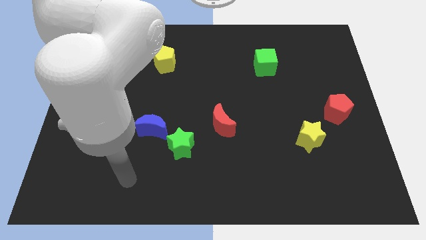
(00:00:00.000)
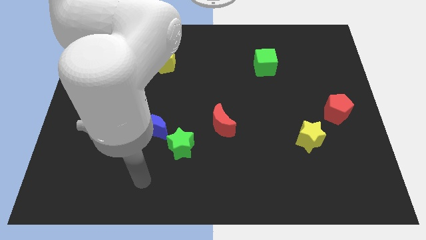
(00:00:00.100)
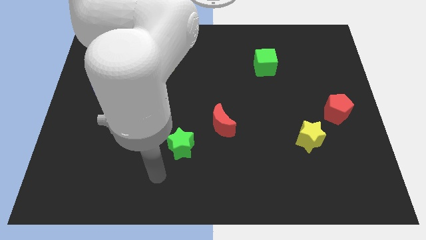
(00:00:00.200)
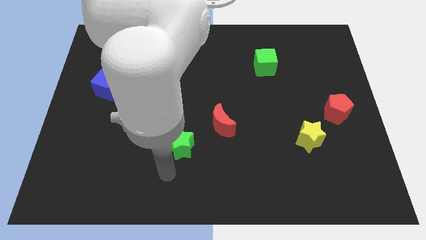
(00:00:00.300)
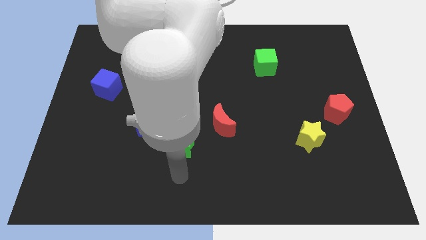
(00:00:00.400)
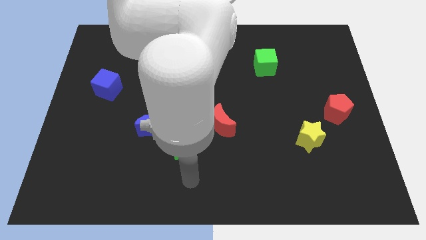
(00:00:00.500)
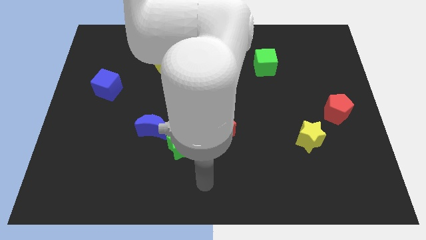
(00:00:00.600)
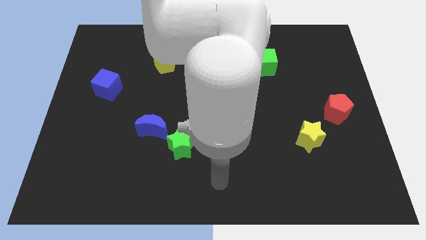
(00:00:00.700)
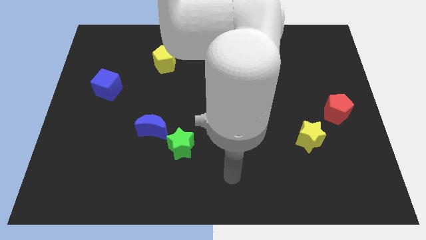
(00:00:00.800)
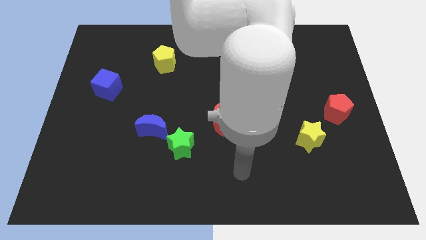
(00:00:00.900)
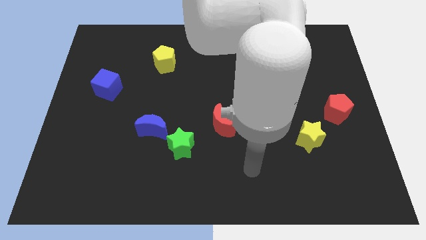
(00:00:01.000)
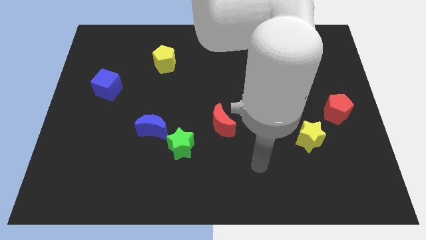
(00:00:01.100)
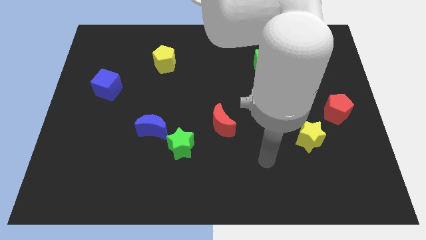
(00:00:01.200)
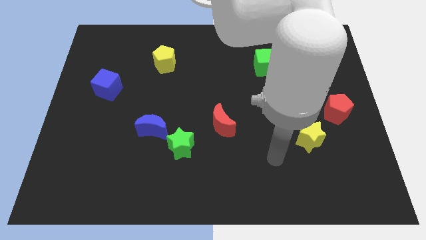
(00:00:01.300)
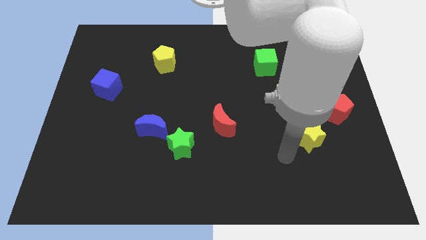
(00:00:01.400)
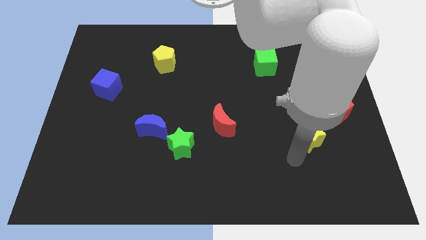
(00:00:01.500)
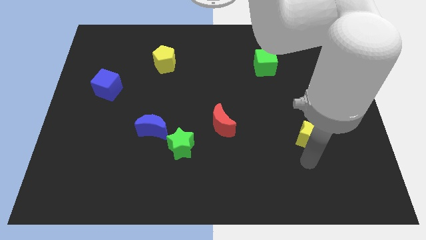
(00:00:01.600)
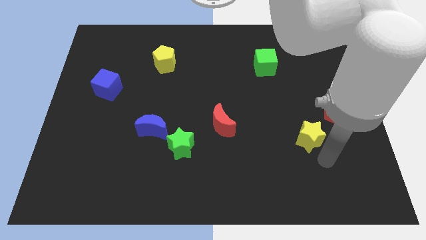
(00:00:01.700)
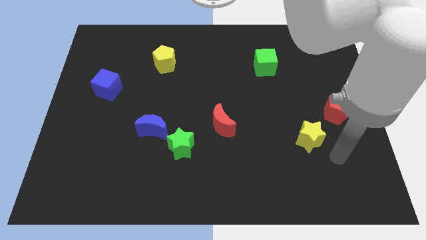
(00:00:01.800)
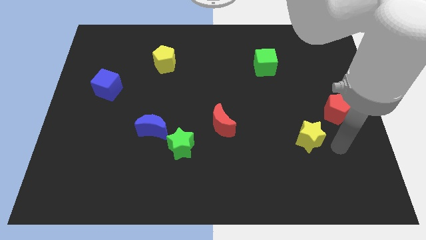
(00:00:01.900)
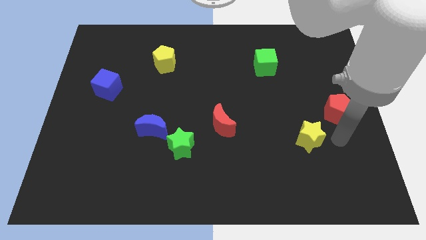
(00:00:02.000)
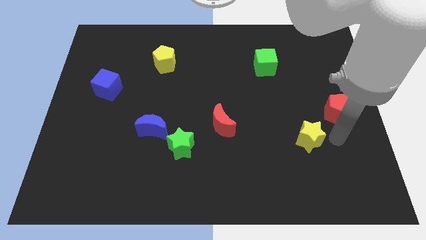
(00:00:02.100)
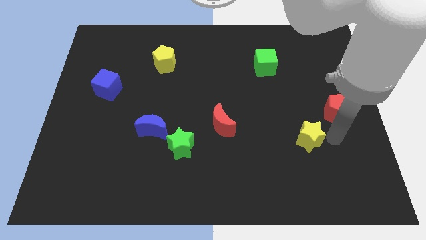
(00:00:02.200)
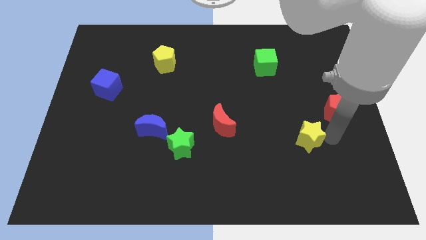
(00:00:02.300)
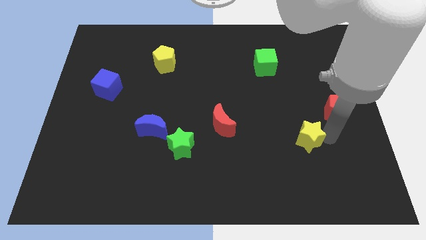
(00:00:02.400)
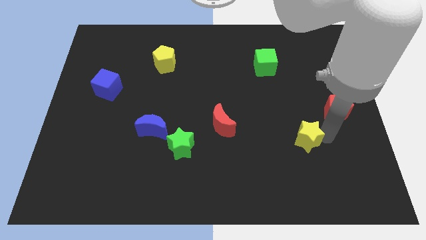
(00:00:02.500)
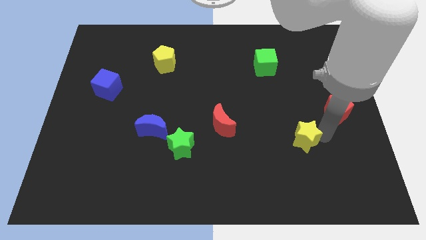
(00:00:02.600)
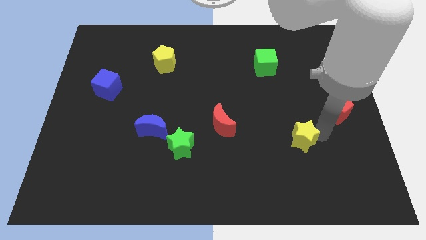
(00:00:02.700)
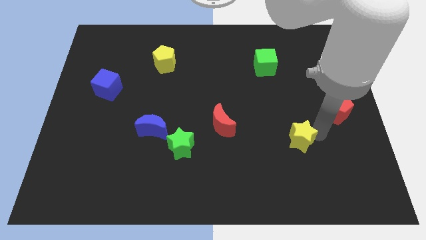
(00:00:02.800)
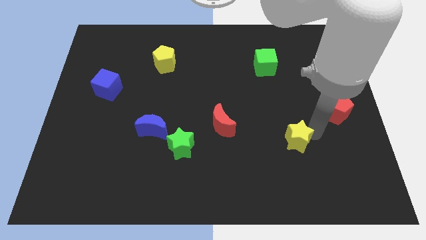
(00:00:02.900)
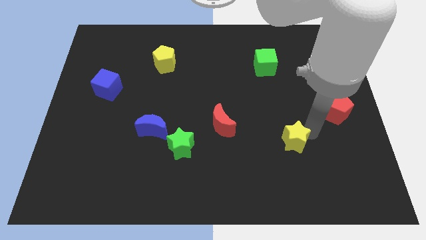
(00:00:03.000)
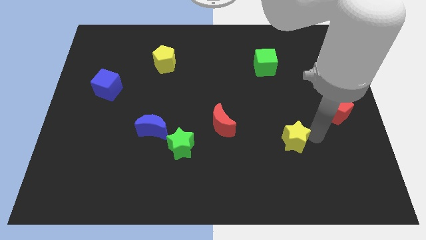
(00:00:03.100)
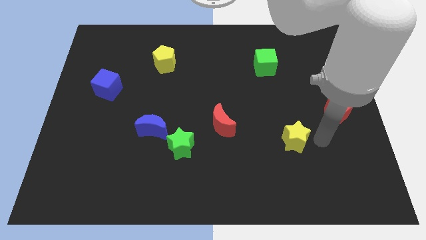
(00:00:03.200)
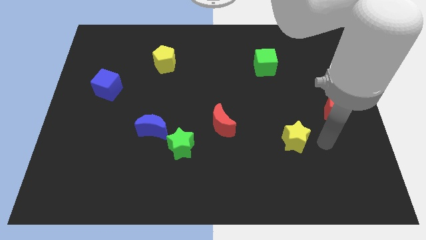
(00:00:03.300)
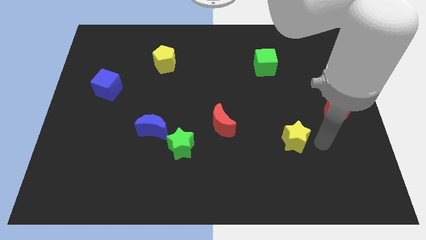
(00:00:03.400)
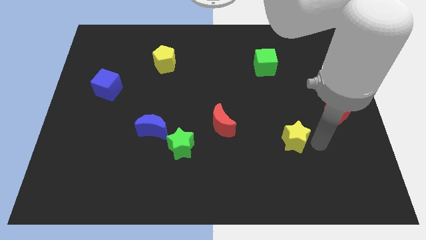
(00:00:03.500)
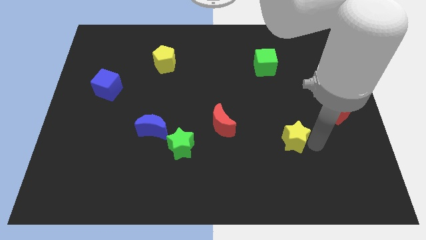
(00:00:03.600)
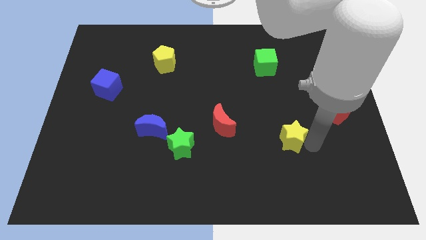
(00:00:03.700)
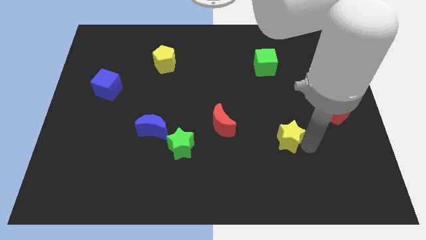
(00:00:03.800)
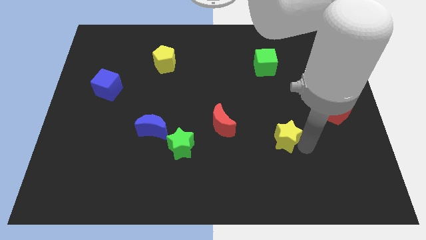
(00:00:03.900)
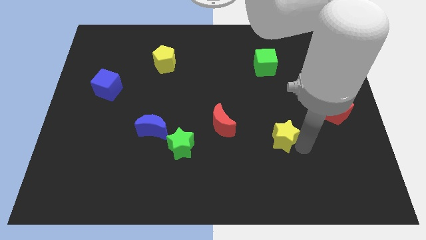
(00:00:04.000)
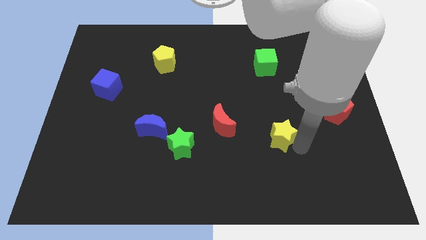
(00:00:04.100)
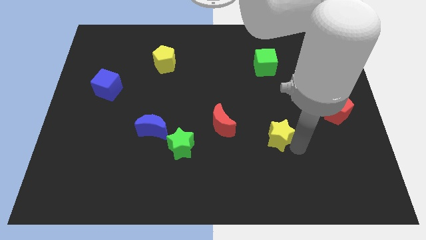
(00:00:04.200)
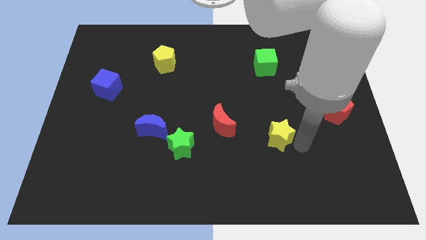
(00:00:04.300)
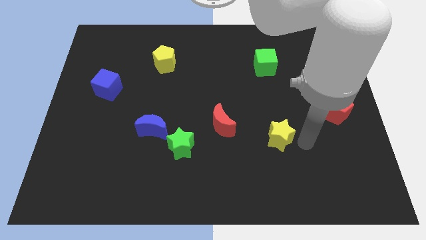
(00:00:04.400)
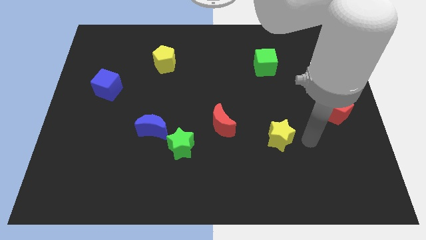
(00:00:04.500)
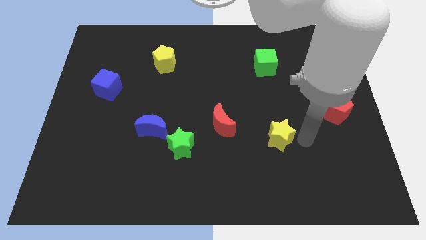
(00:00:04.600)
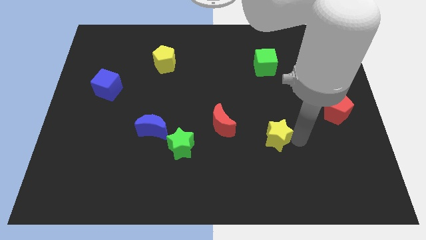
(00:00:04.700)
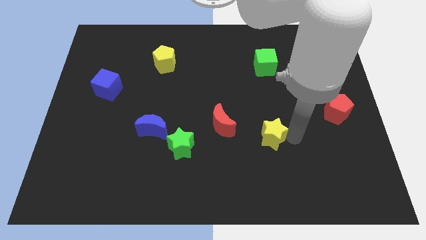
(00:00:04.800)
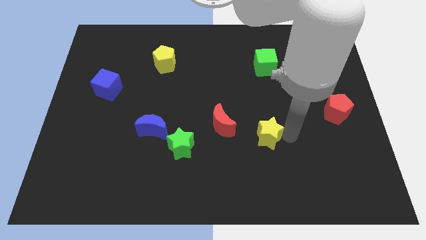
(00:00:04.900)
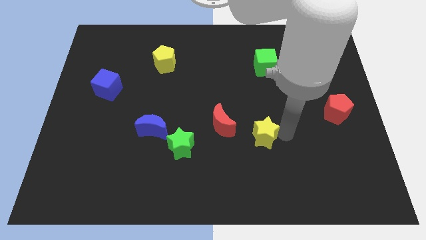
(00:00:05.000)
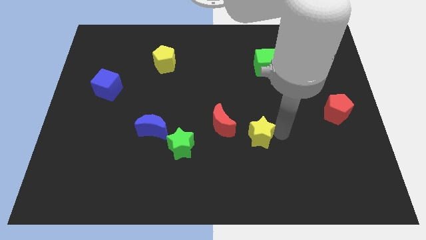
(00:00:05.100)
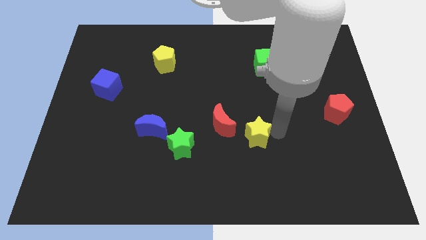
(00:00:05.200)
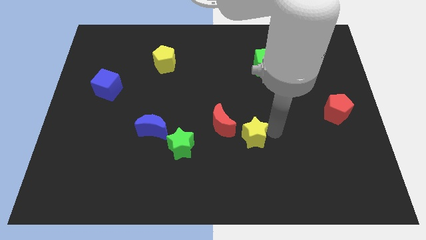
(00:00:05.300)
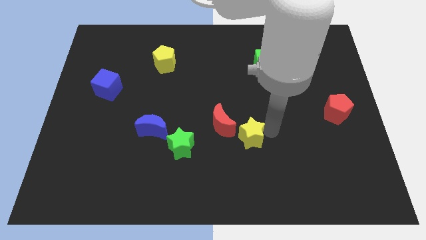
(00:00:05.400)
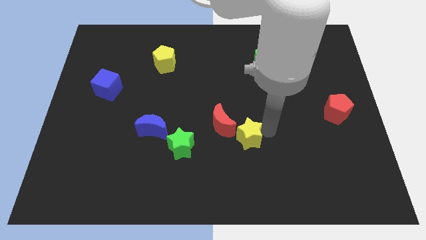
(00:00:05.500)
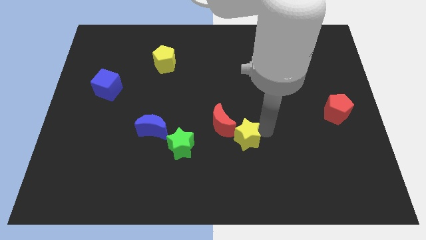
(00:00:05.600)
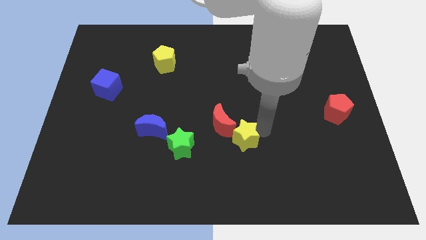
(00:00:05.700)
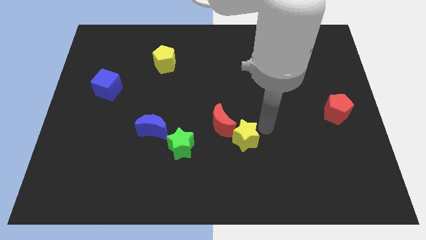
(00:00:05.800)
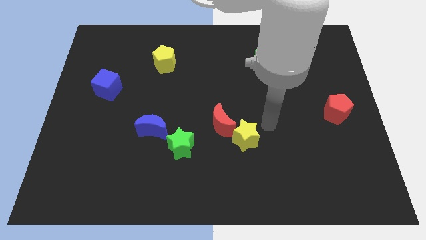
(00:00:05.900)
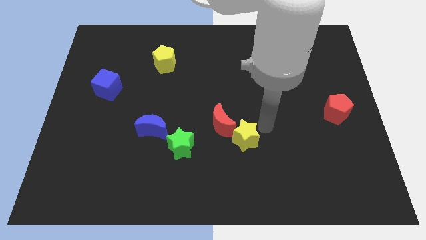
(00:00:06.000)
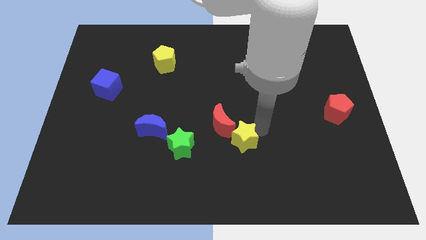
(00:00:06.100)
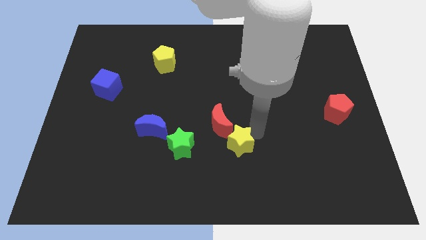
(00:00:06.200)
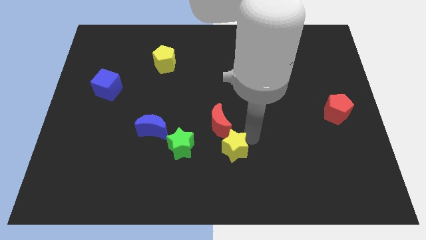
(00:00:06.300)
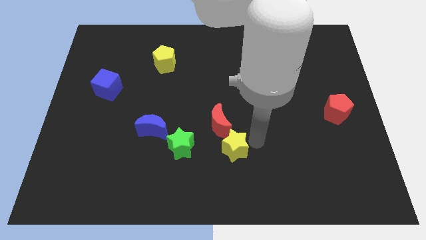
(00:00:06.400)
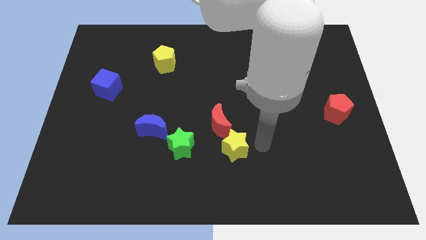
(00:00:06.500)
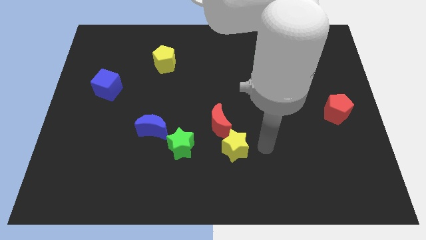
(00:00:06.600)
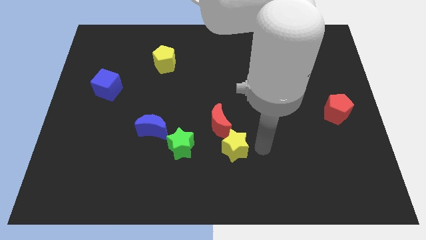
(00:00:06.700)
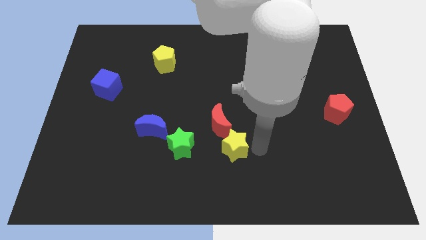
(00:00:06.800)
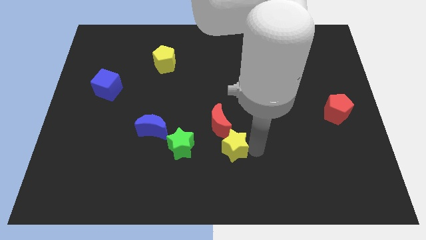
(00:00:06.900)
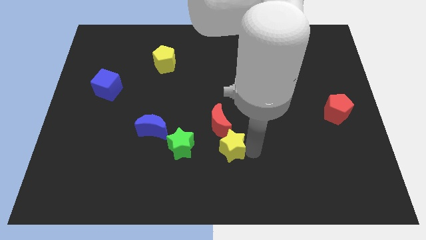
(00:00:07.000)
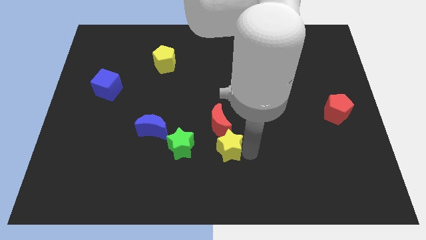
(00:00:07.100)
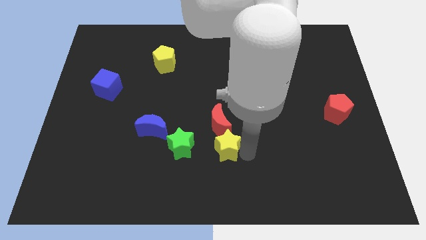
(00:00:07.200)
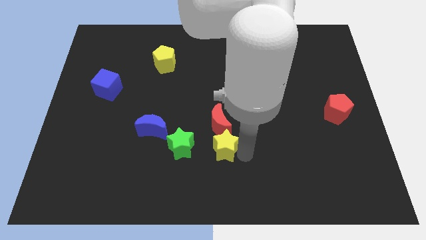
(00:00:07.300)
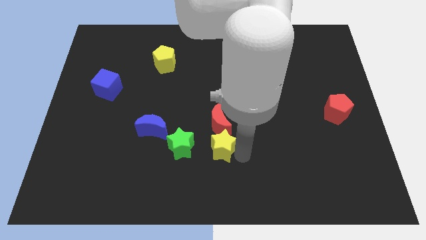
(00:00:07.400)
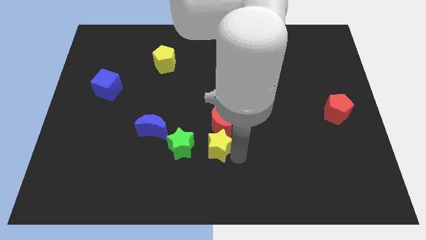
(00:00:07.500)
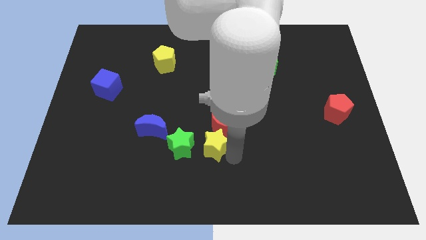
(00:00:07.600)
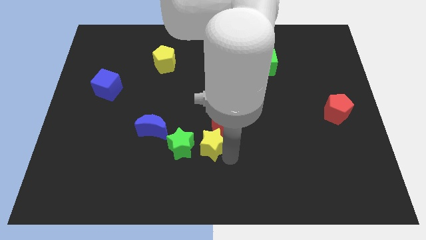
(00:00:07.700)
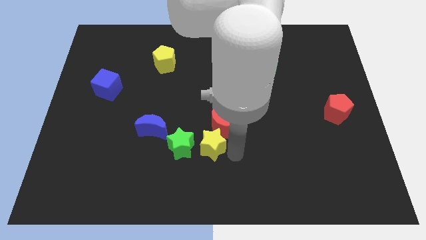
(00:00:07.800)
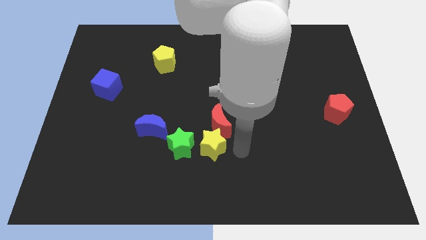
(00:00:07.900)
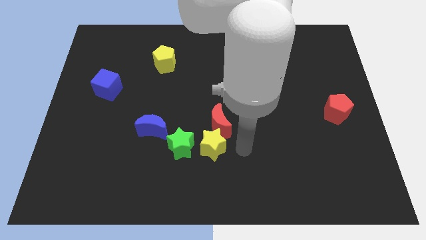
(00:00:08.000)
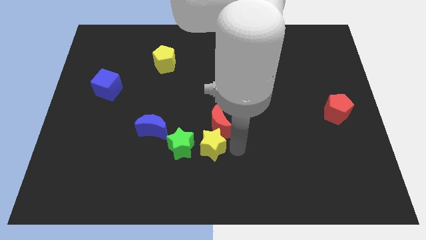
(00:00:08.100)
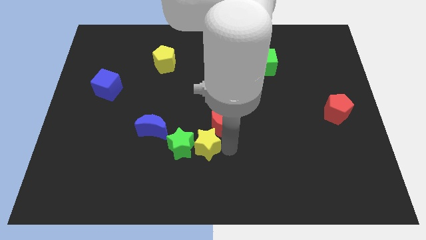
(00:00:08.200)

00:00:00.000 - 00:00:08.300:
move the yellow star to the green star
